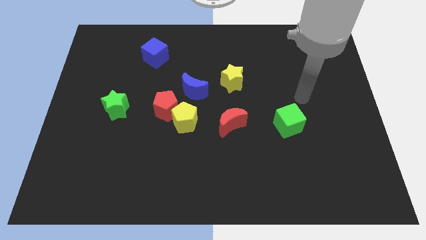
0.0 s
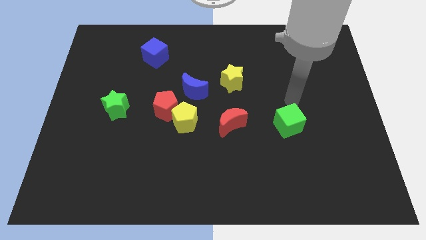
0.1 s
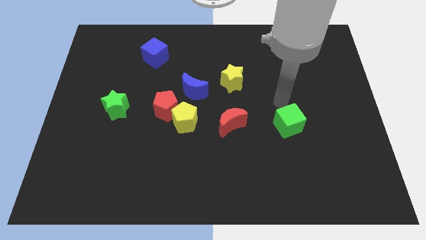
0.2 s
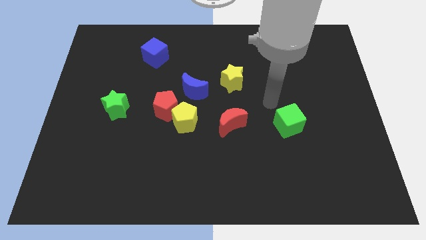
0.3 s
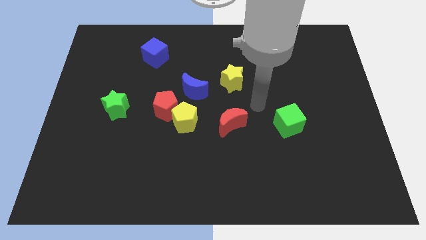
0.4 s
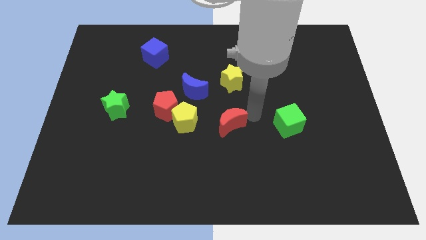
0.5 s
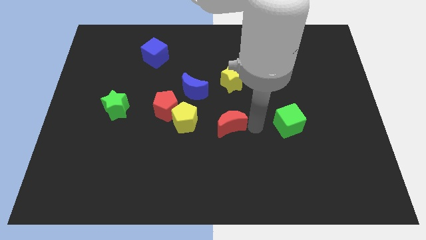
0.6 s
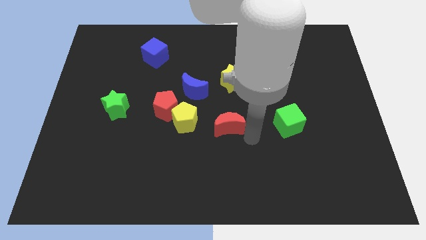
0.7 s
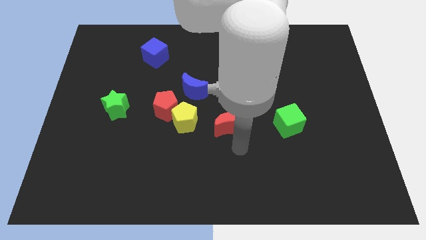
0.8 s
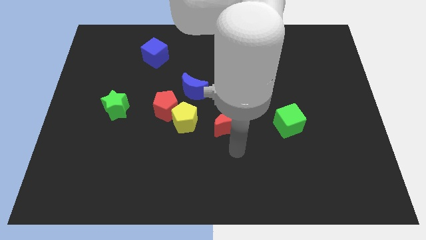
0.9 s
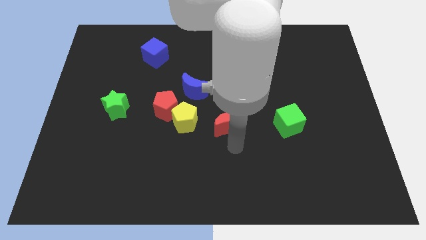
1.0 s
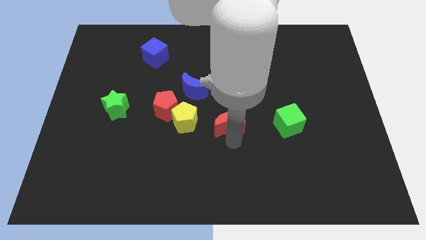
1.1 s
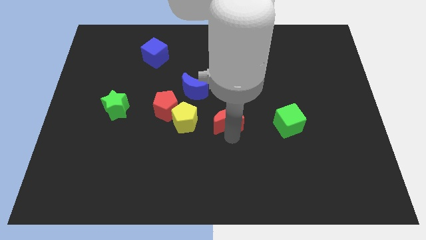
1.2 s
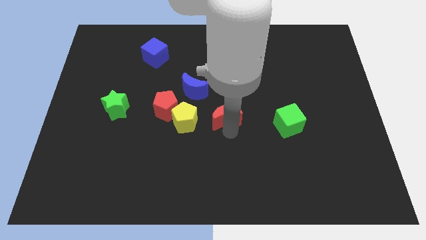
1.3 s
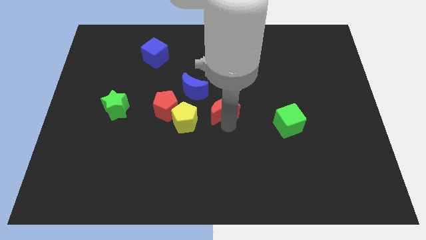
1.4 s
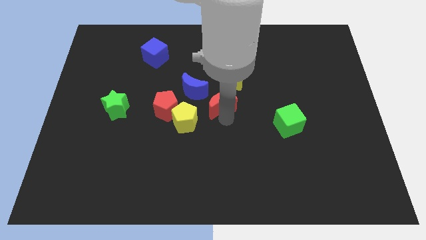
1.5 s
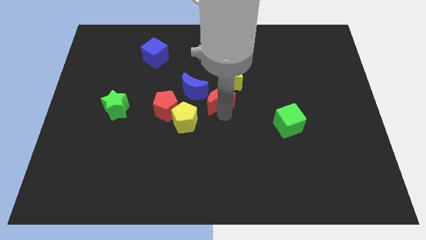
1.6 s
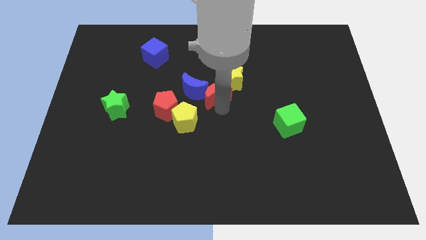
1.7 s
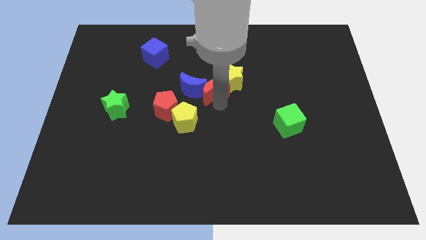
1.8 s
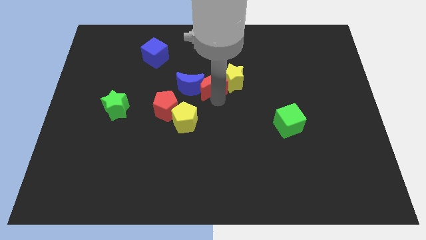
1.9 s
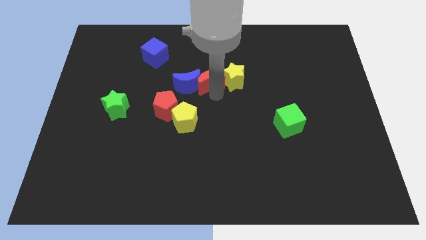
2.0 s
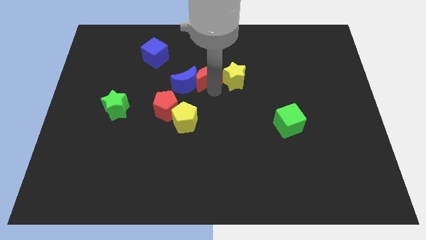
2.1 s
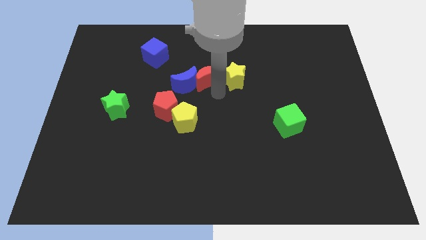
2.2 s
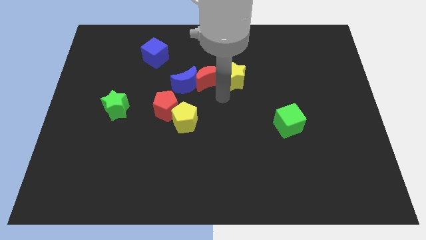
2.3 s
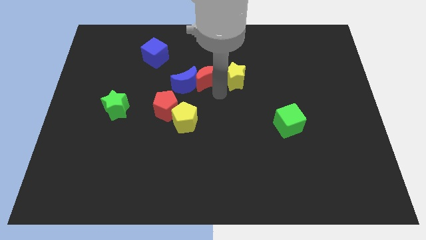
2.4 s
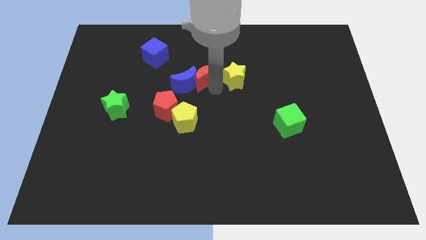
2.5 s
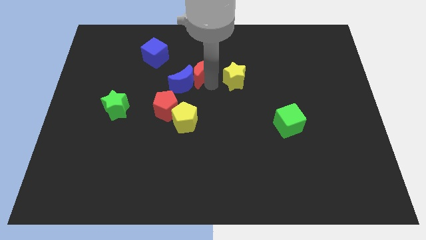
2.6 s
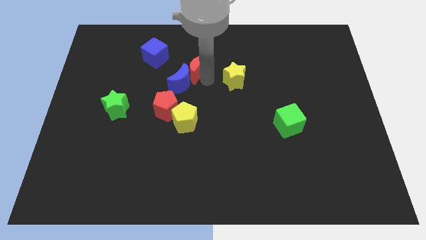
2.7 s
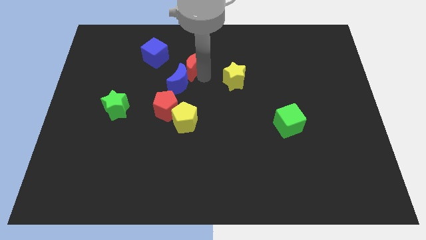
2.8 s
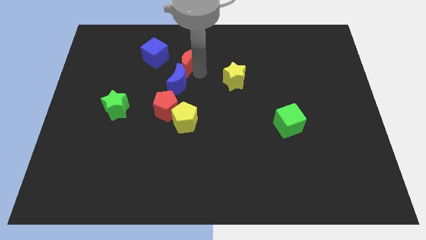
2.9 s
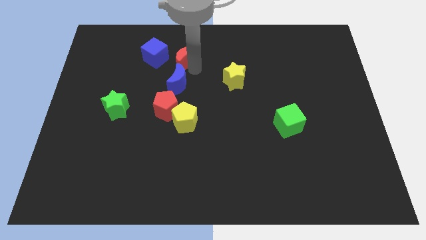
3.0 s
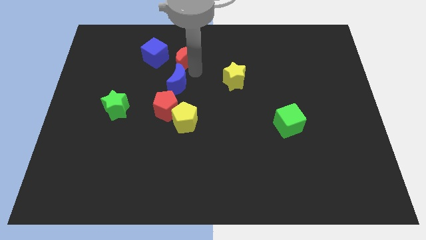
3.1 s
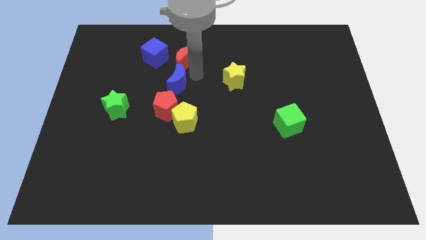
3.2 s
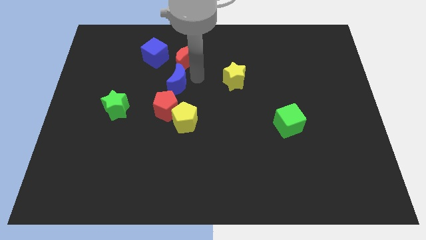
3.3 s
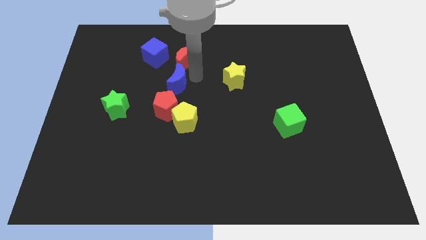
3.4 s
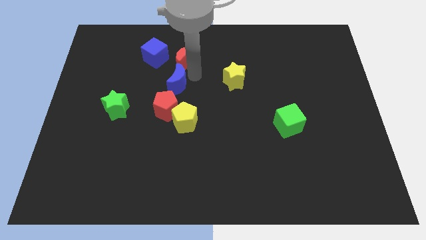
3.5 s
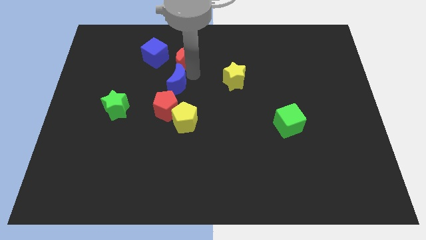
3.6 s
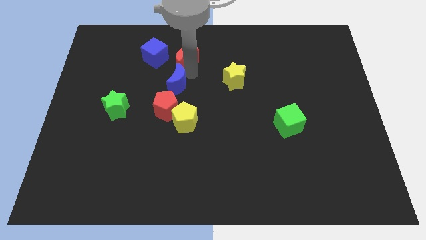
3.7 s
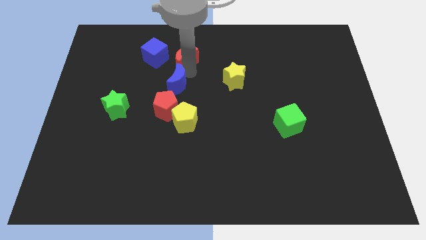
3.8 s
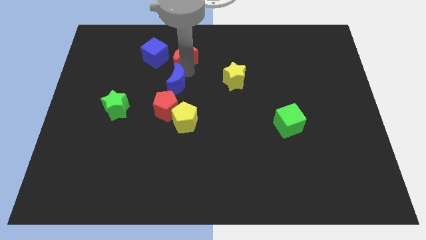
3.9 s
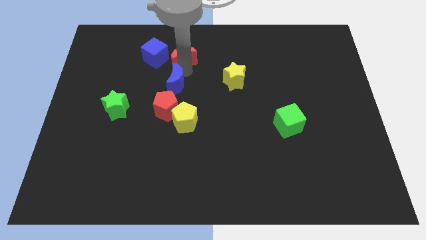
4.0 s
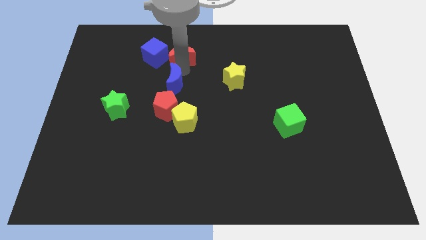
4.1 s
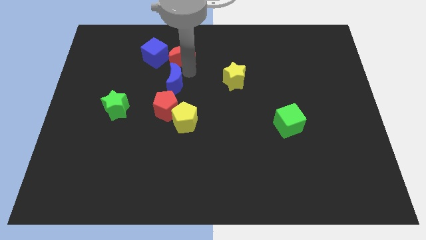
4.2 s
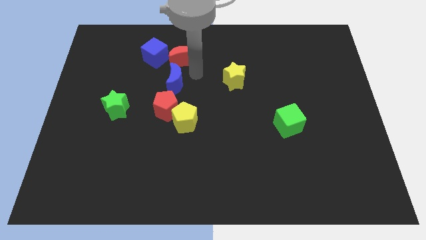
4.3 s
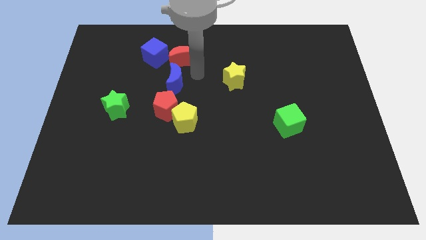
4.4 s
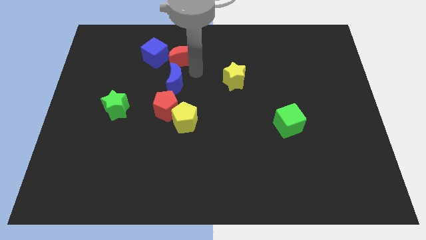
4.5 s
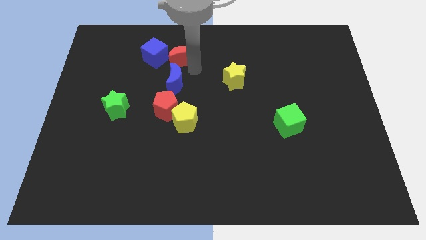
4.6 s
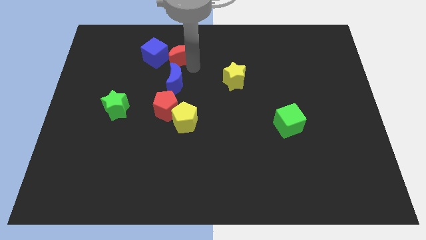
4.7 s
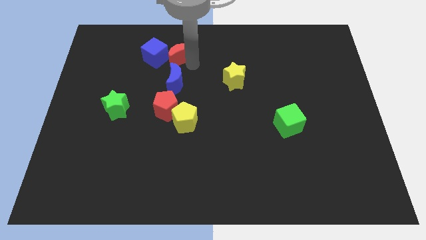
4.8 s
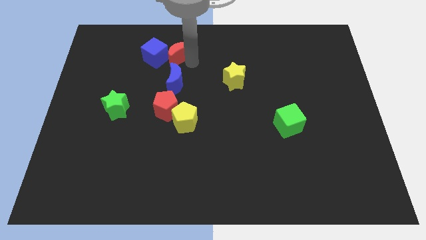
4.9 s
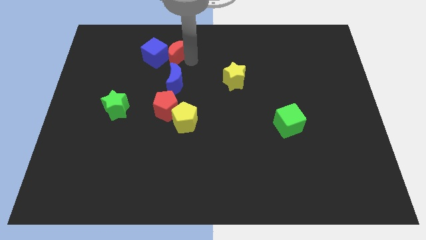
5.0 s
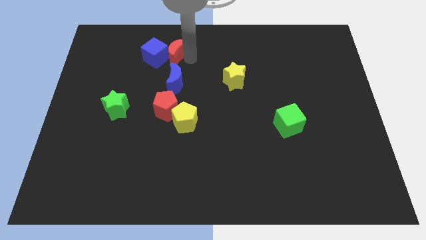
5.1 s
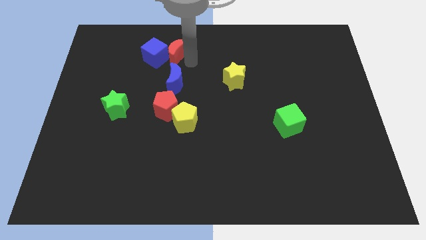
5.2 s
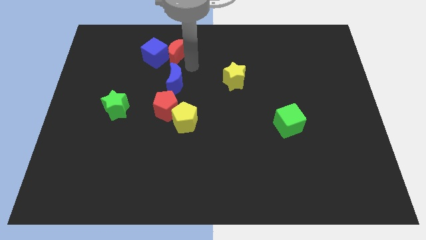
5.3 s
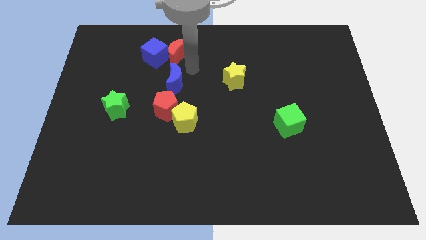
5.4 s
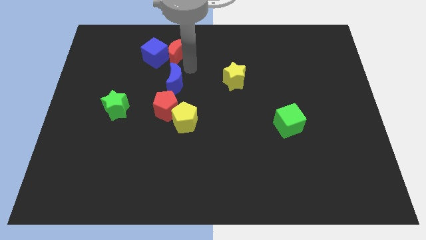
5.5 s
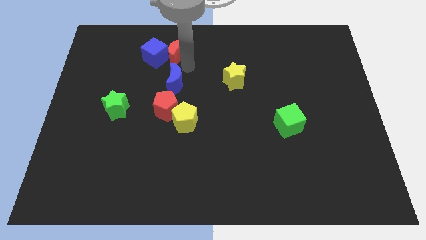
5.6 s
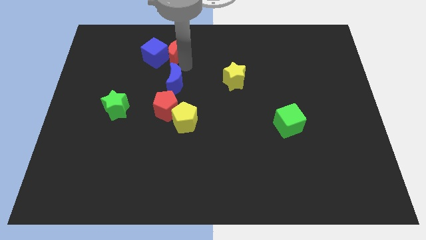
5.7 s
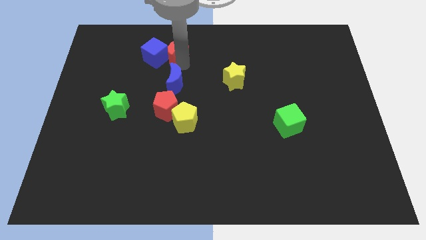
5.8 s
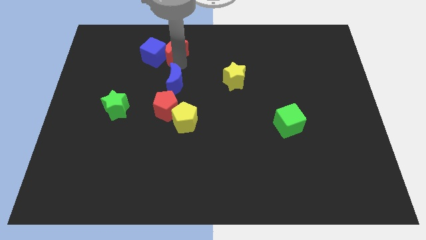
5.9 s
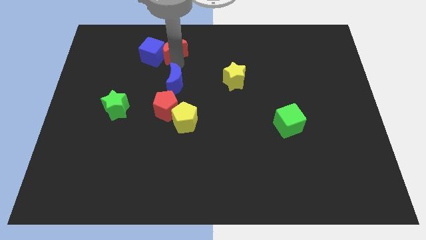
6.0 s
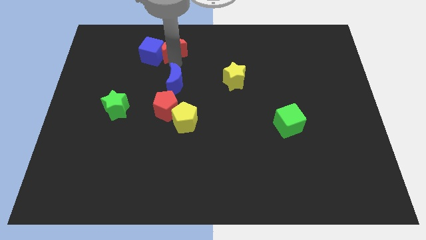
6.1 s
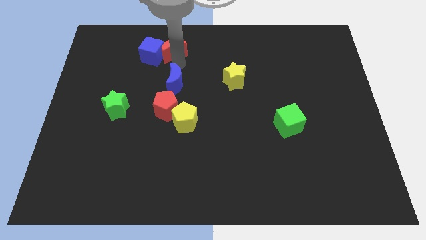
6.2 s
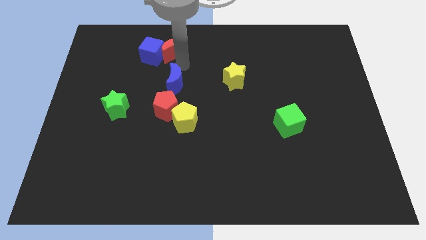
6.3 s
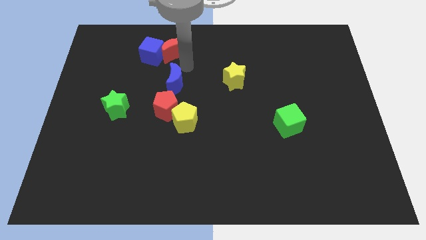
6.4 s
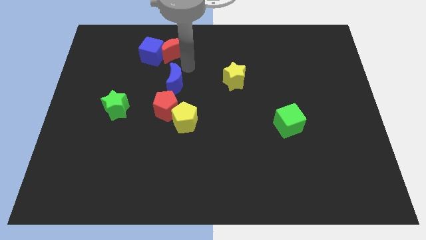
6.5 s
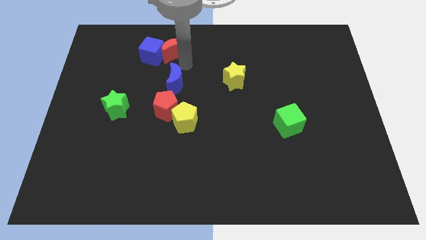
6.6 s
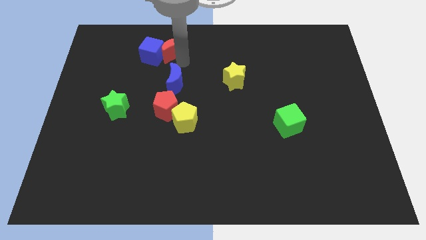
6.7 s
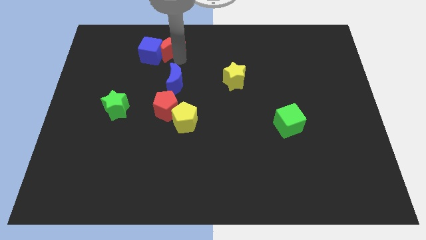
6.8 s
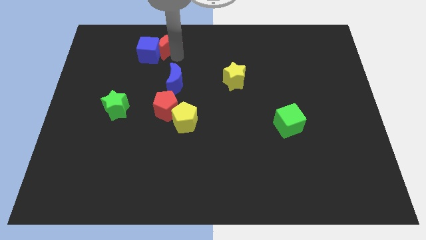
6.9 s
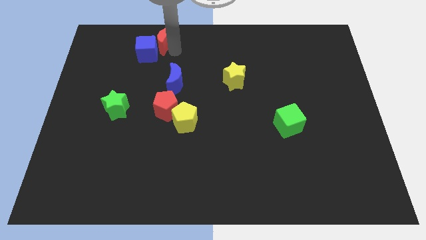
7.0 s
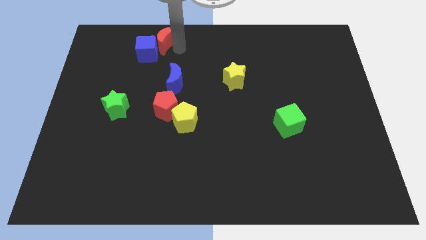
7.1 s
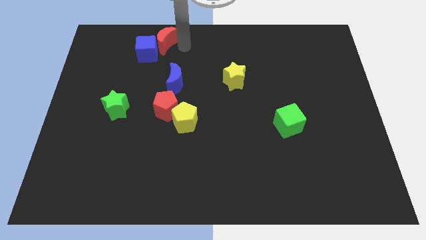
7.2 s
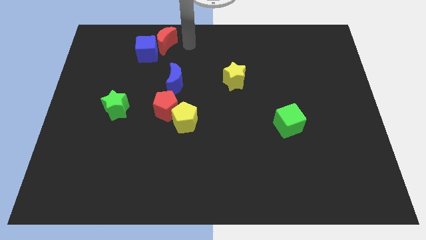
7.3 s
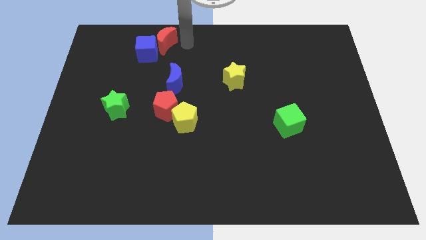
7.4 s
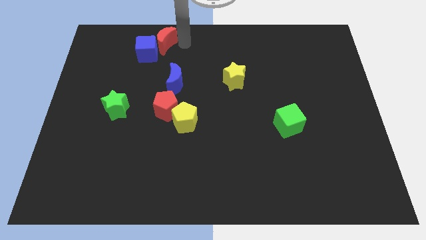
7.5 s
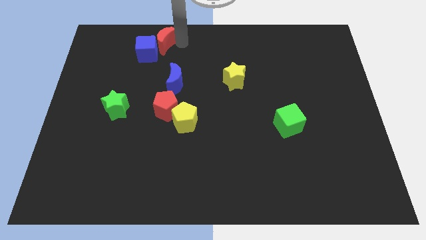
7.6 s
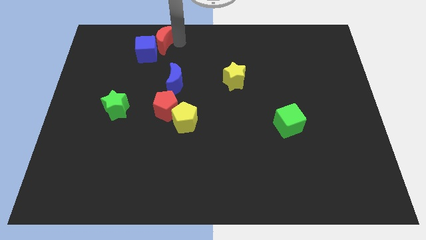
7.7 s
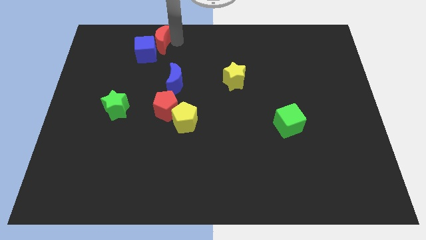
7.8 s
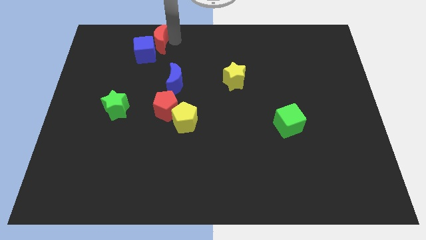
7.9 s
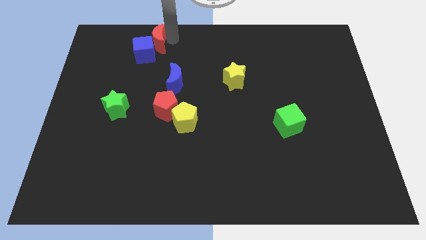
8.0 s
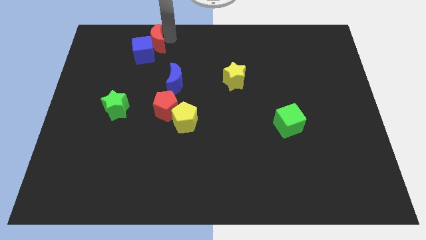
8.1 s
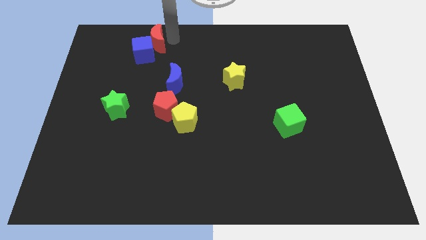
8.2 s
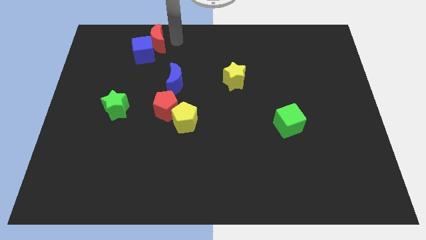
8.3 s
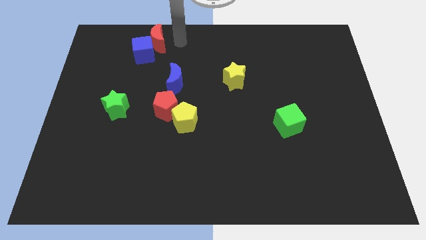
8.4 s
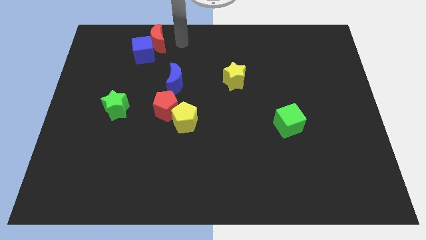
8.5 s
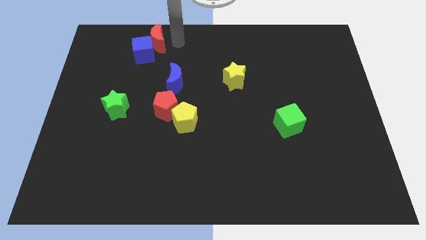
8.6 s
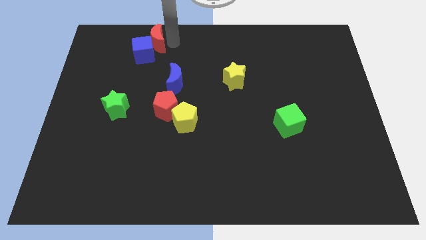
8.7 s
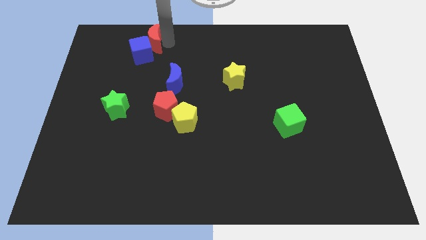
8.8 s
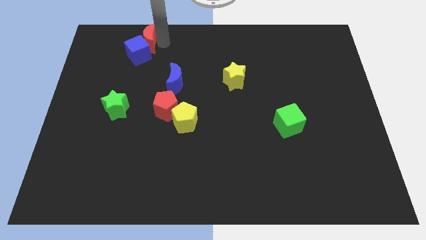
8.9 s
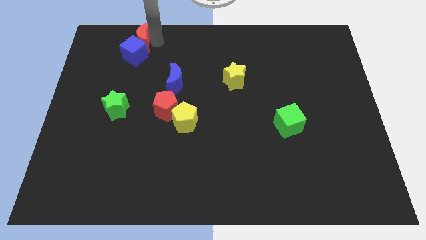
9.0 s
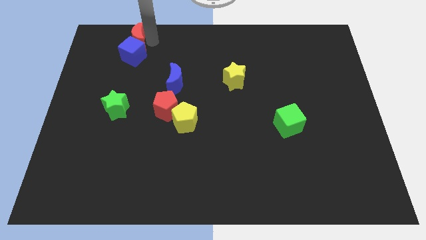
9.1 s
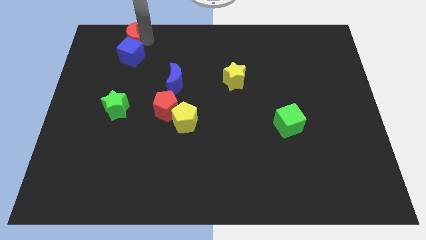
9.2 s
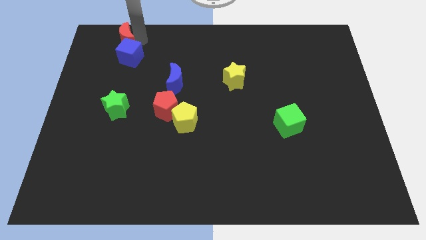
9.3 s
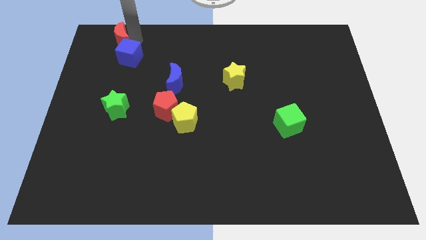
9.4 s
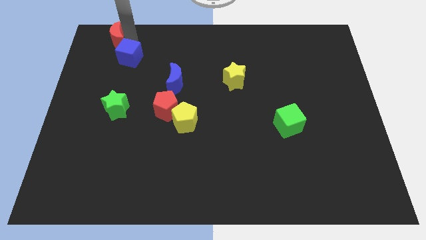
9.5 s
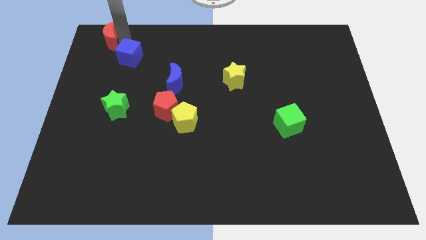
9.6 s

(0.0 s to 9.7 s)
put the red moon to the top left corner
